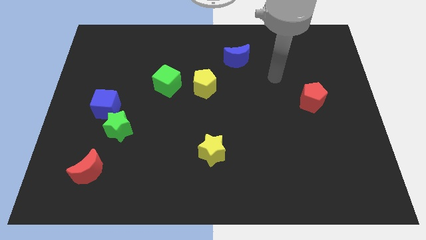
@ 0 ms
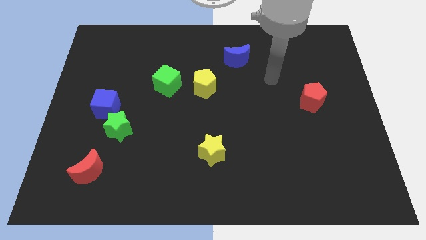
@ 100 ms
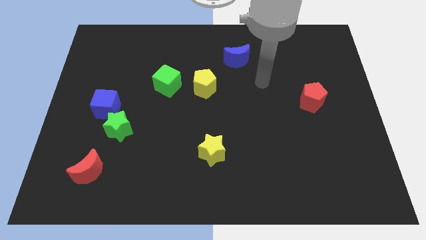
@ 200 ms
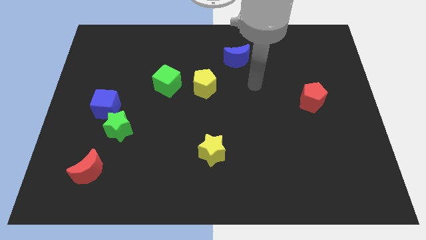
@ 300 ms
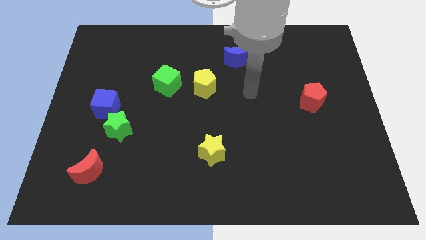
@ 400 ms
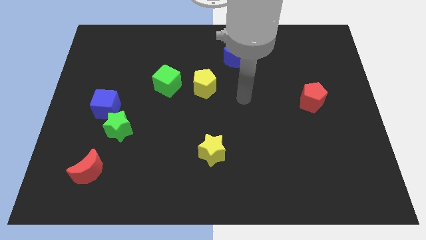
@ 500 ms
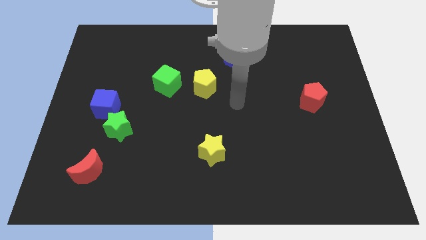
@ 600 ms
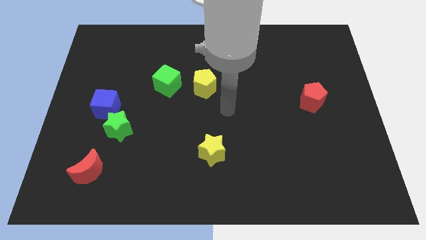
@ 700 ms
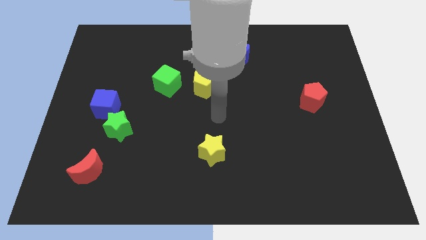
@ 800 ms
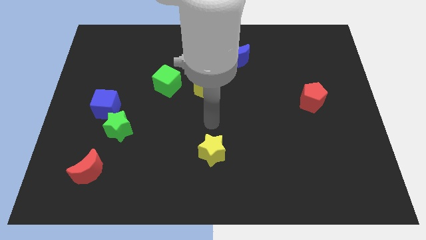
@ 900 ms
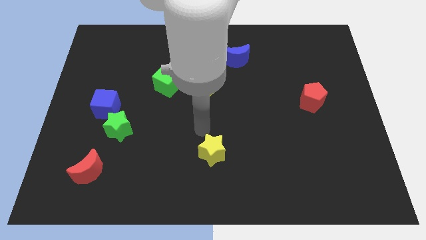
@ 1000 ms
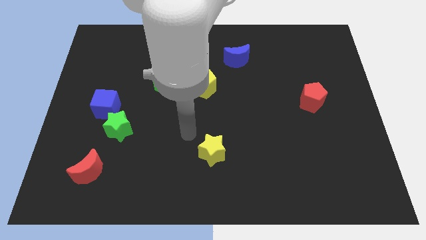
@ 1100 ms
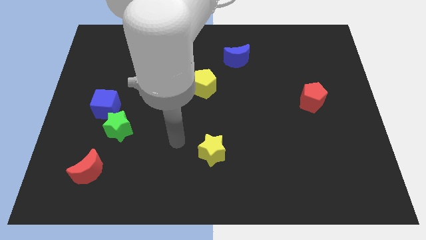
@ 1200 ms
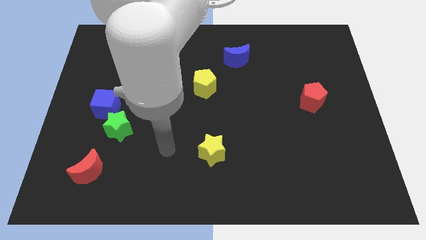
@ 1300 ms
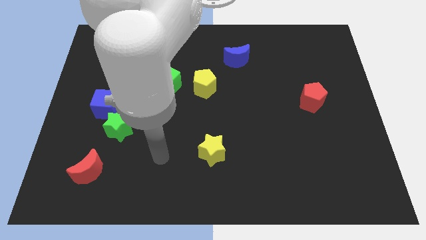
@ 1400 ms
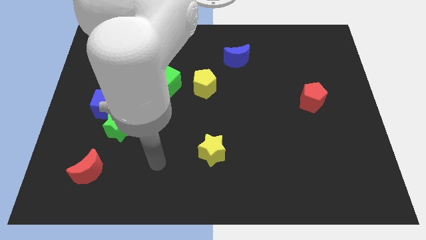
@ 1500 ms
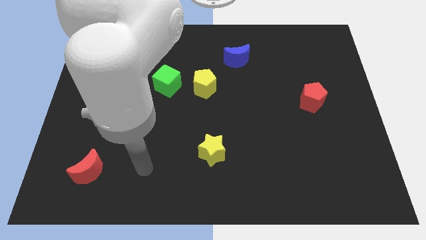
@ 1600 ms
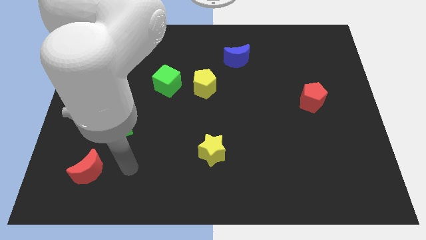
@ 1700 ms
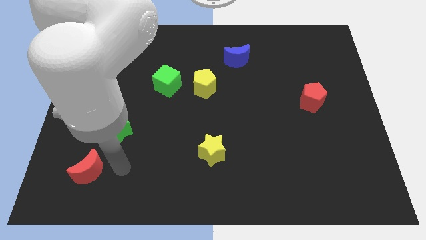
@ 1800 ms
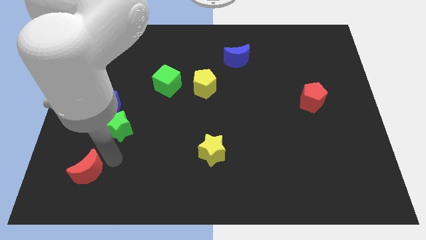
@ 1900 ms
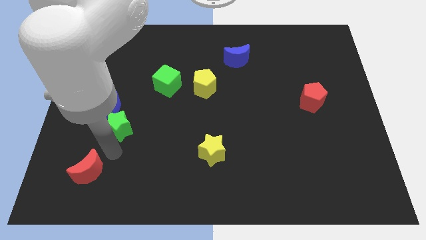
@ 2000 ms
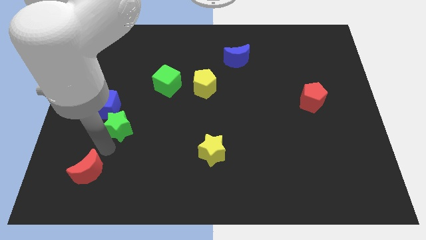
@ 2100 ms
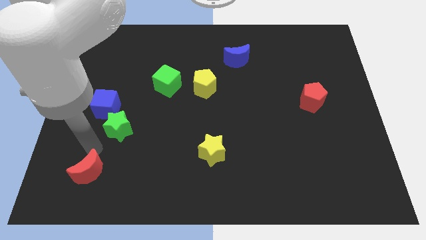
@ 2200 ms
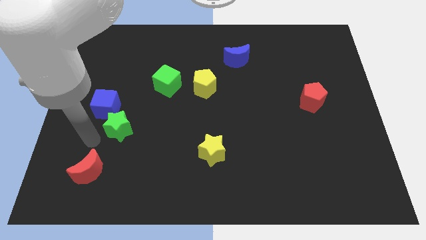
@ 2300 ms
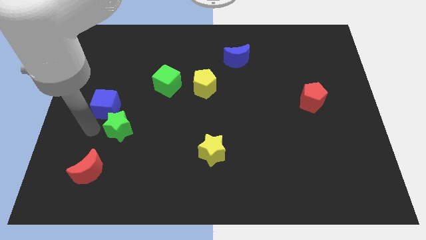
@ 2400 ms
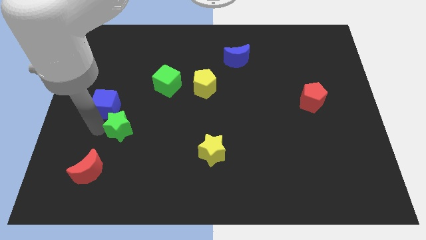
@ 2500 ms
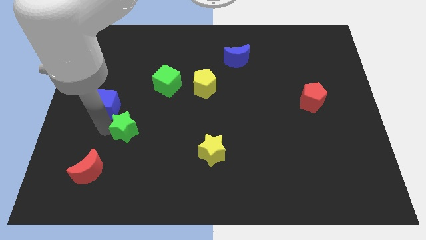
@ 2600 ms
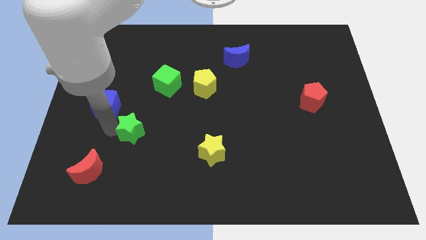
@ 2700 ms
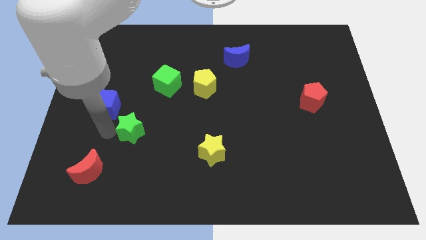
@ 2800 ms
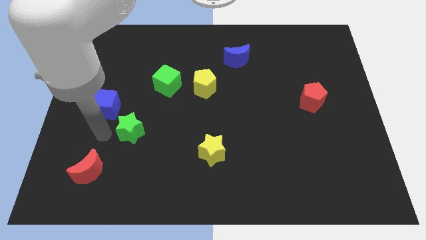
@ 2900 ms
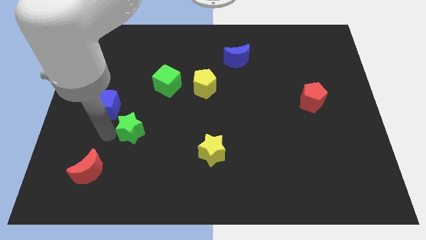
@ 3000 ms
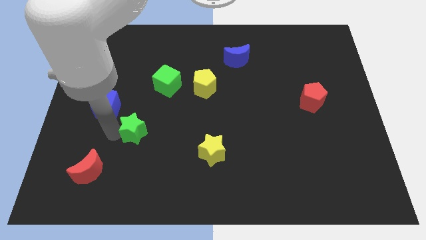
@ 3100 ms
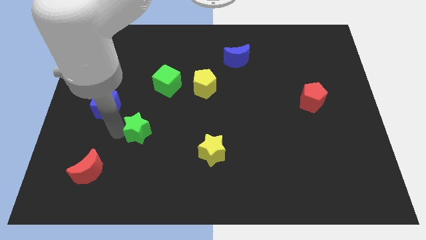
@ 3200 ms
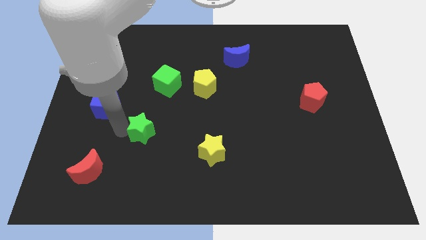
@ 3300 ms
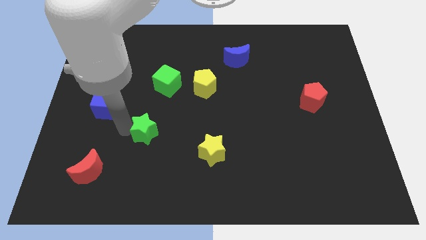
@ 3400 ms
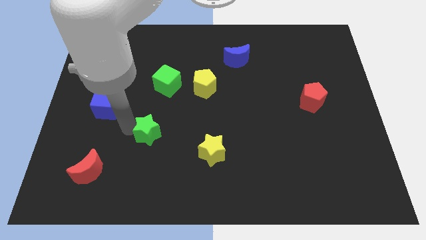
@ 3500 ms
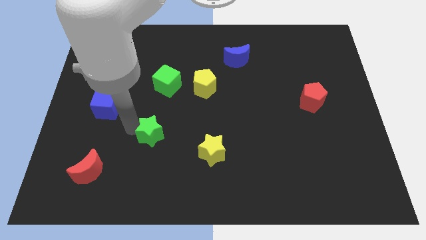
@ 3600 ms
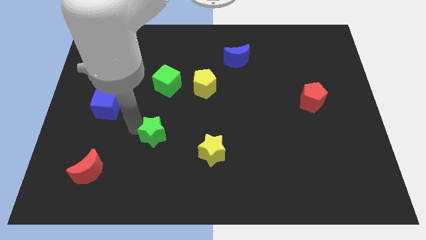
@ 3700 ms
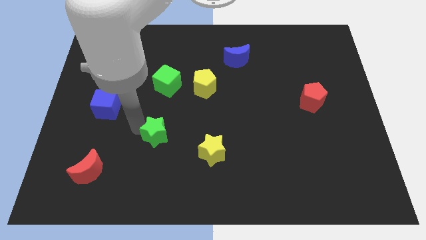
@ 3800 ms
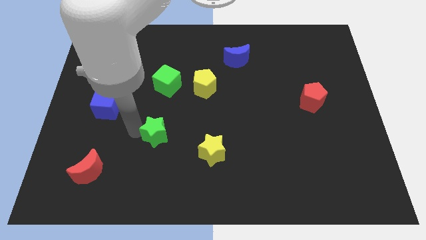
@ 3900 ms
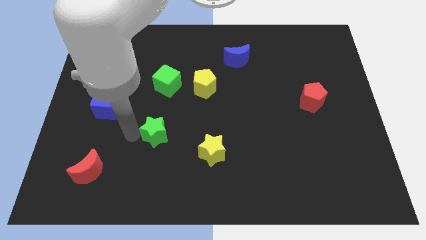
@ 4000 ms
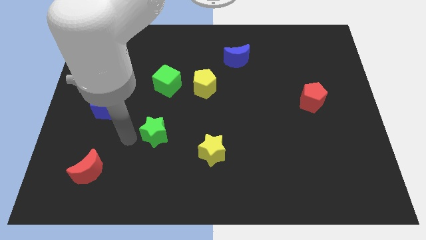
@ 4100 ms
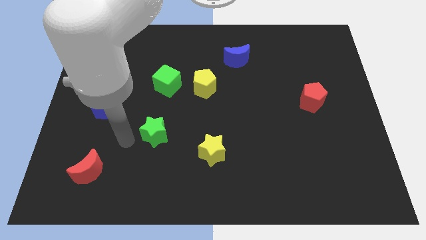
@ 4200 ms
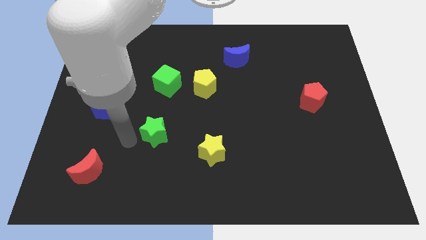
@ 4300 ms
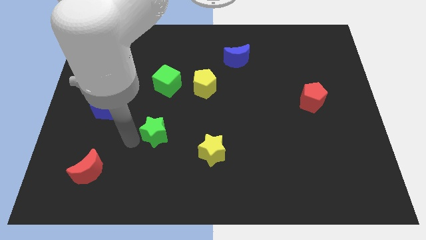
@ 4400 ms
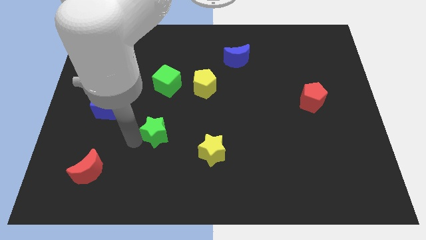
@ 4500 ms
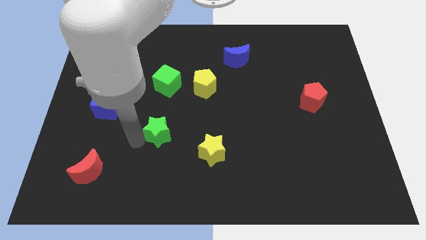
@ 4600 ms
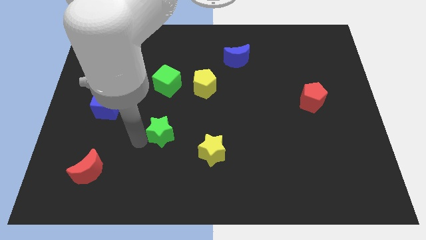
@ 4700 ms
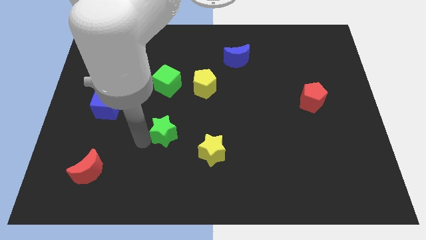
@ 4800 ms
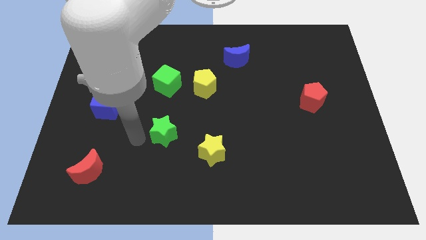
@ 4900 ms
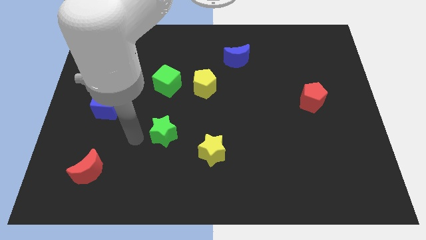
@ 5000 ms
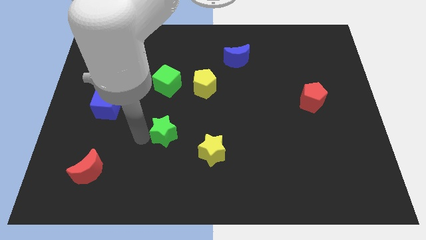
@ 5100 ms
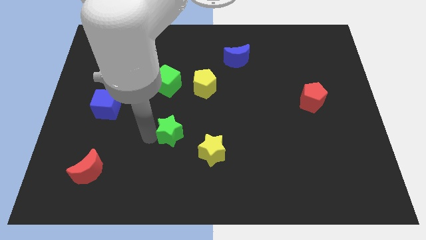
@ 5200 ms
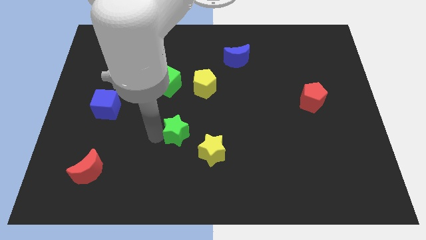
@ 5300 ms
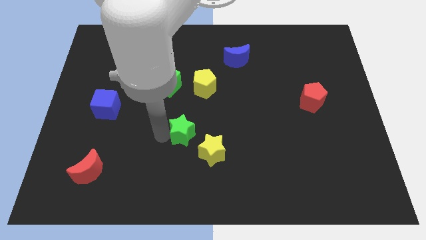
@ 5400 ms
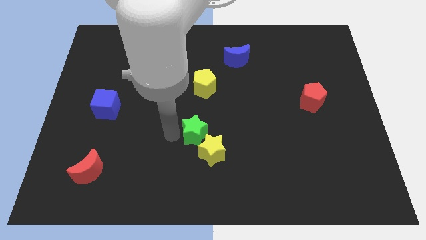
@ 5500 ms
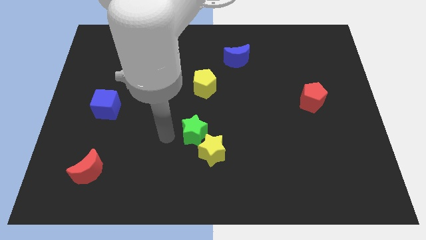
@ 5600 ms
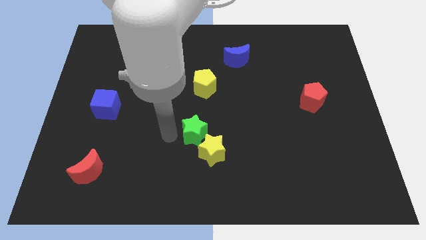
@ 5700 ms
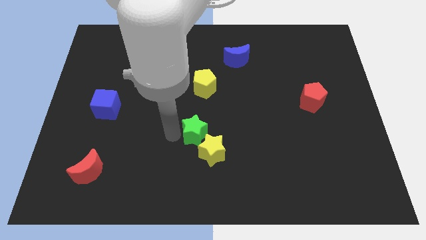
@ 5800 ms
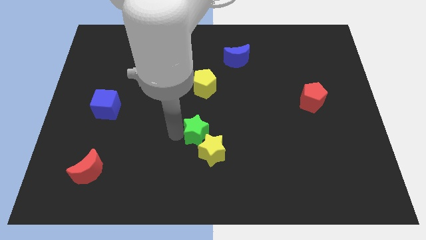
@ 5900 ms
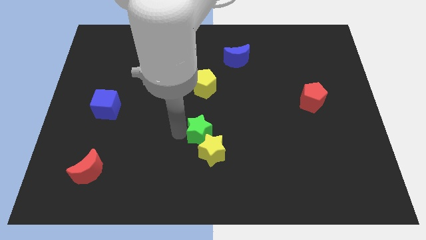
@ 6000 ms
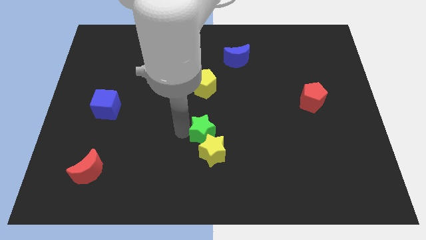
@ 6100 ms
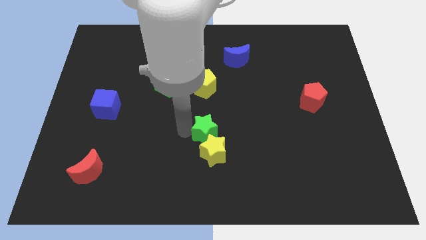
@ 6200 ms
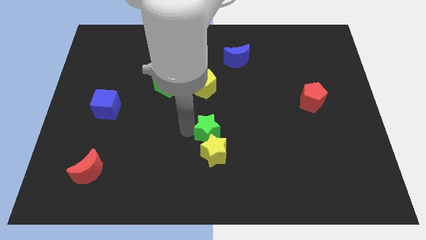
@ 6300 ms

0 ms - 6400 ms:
slide the green star to the right

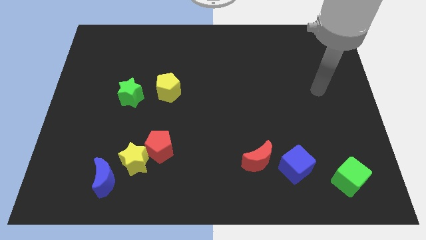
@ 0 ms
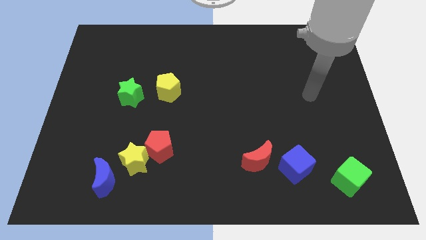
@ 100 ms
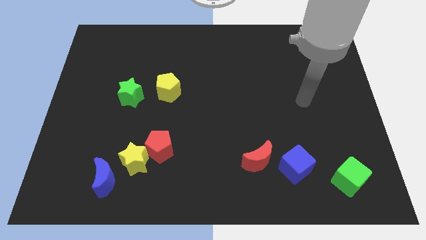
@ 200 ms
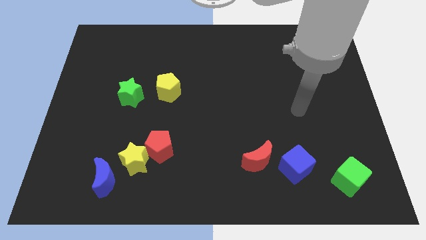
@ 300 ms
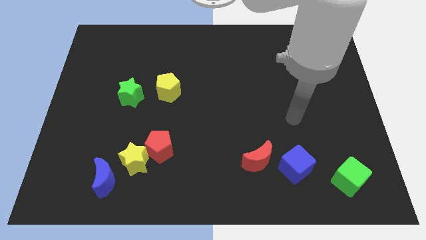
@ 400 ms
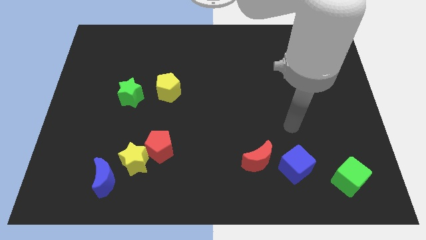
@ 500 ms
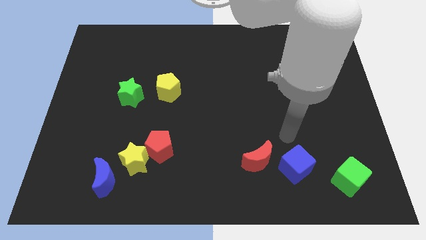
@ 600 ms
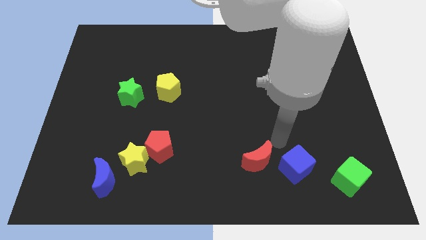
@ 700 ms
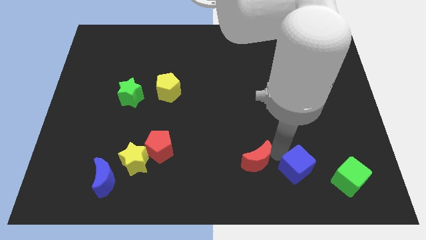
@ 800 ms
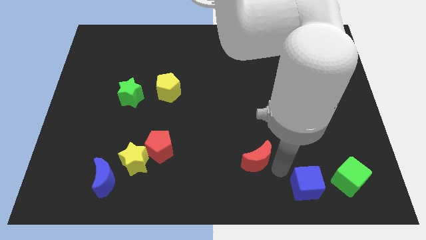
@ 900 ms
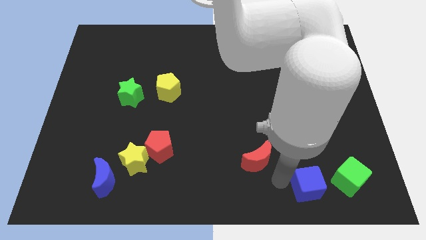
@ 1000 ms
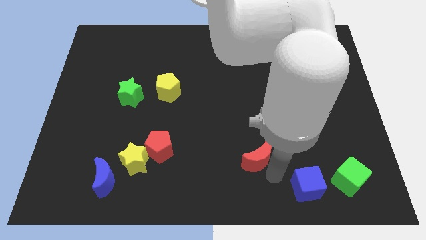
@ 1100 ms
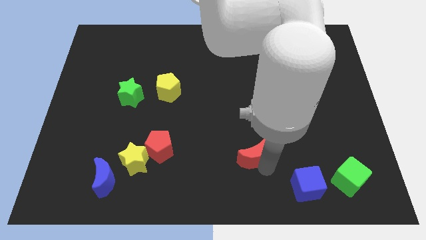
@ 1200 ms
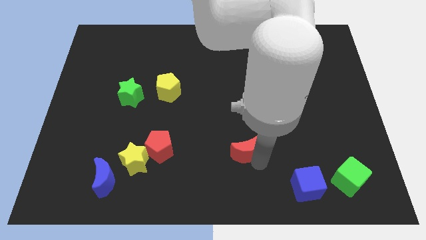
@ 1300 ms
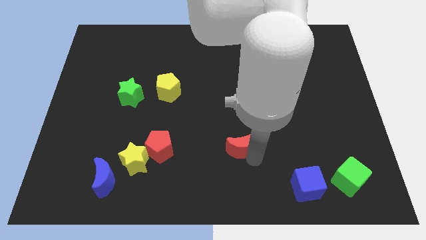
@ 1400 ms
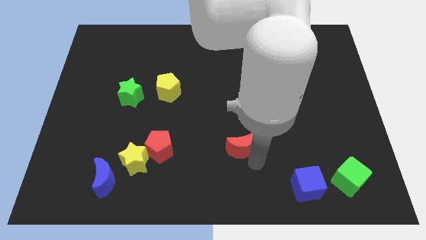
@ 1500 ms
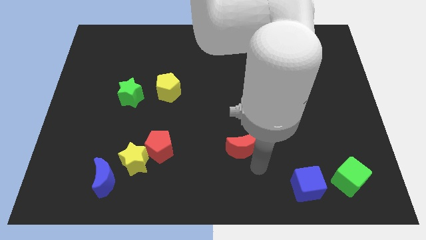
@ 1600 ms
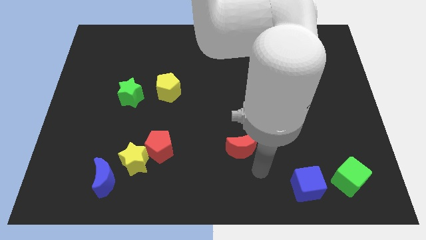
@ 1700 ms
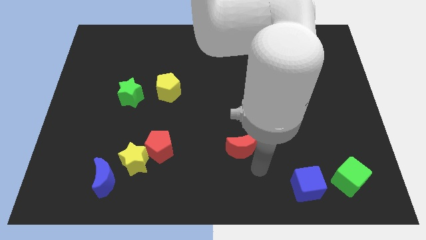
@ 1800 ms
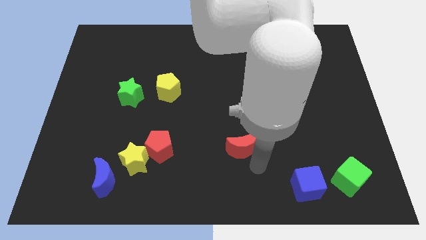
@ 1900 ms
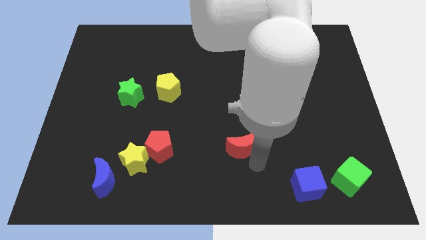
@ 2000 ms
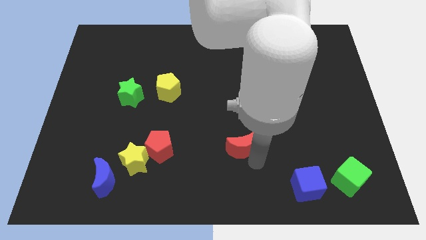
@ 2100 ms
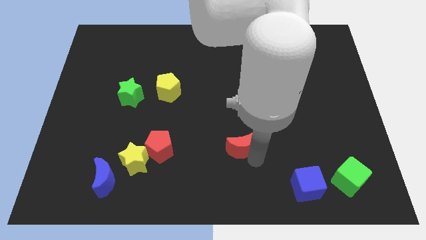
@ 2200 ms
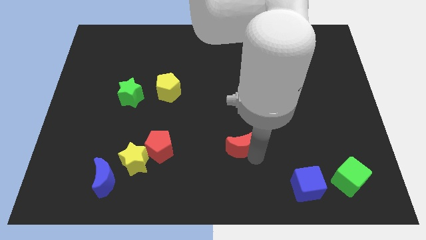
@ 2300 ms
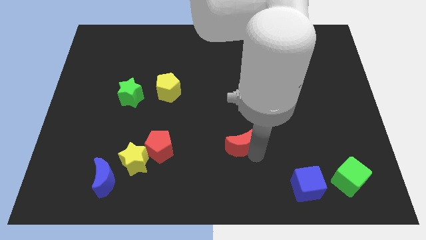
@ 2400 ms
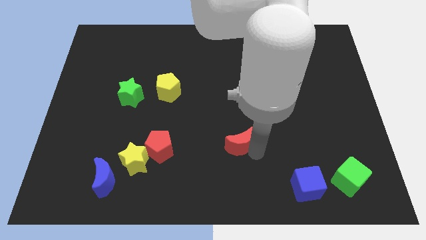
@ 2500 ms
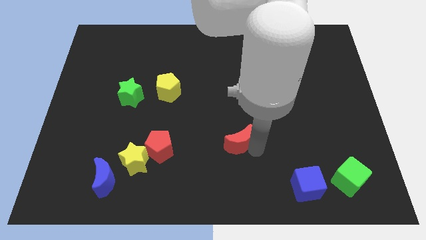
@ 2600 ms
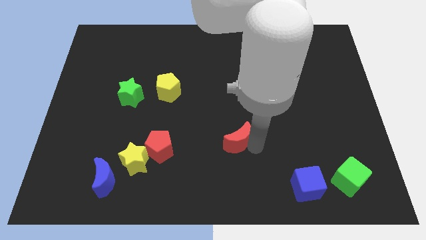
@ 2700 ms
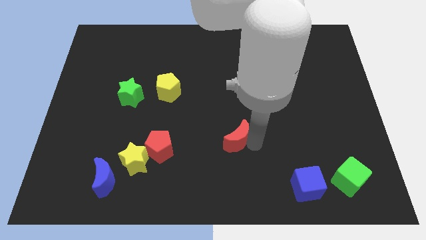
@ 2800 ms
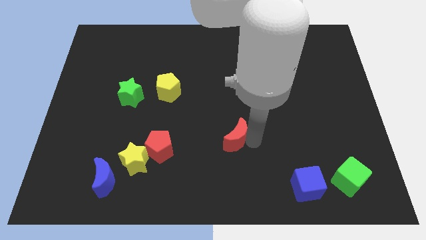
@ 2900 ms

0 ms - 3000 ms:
push the red moon a little bit up and left diagonally
